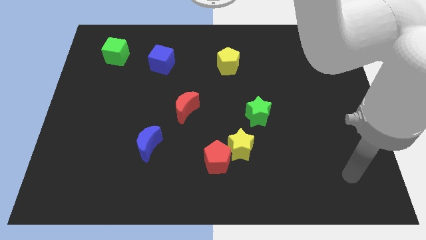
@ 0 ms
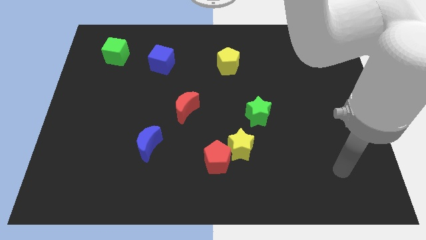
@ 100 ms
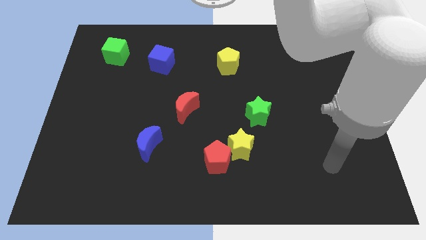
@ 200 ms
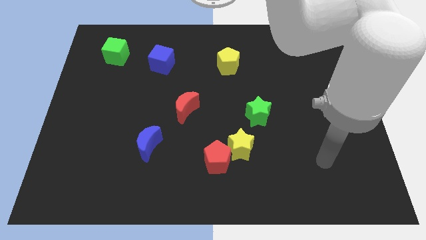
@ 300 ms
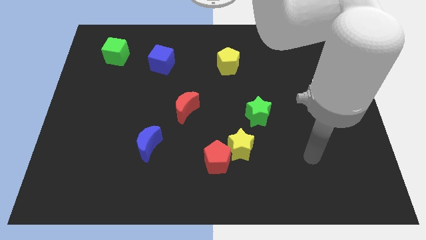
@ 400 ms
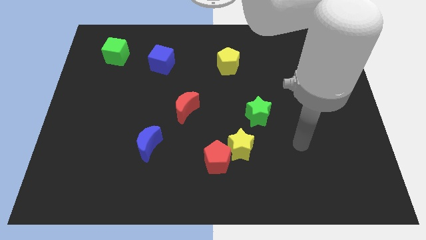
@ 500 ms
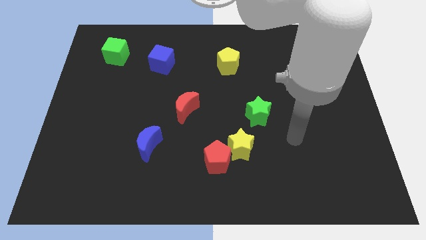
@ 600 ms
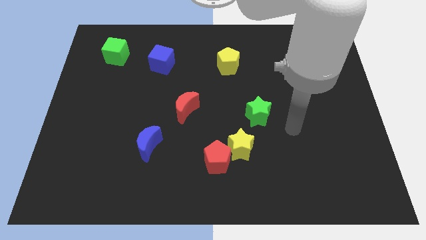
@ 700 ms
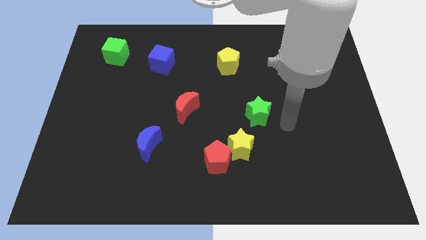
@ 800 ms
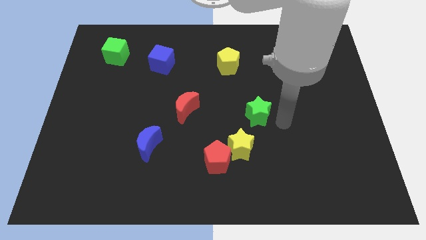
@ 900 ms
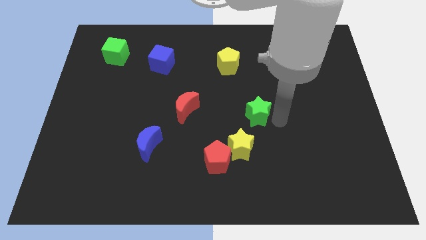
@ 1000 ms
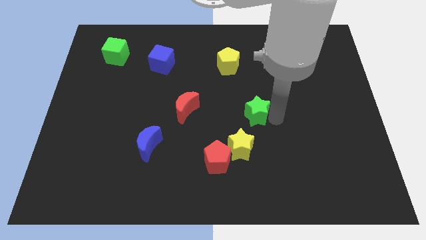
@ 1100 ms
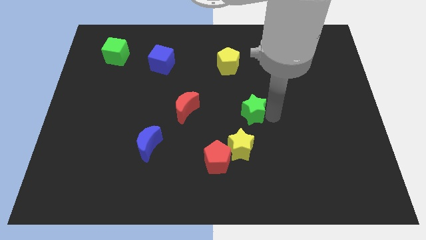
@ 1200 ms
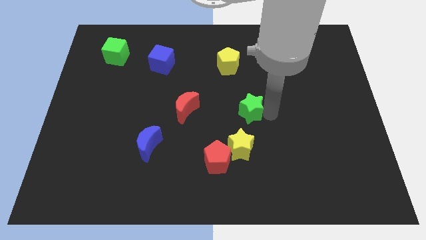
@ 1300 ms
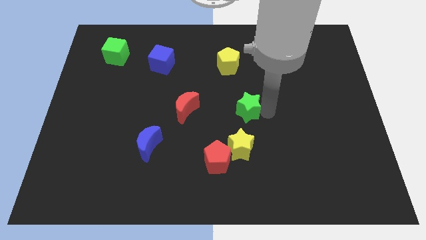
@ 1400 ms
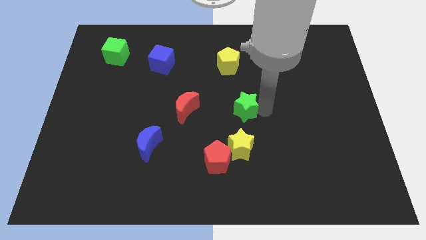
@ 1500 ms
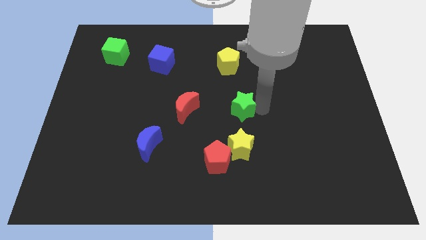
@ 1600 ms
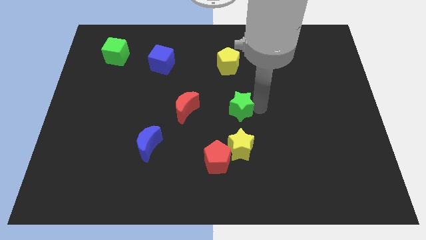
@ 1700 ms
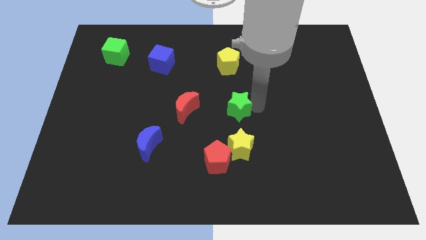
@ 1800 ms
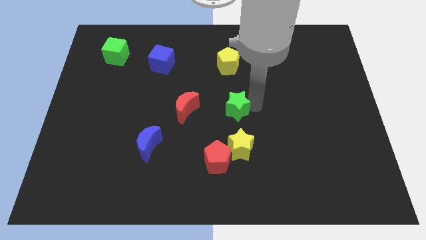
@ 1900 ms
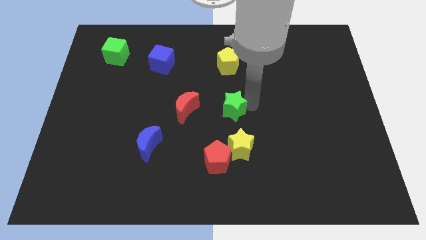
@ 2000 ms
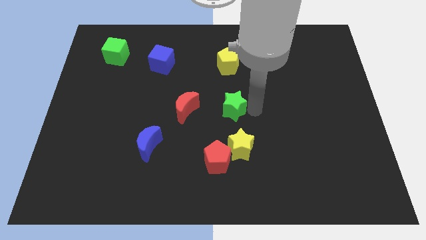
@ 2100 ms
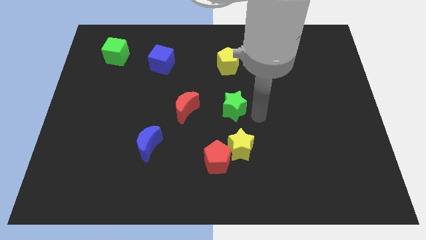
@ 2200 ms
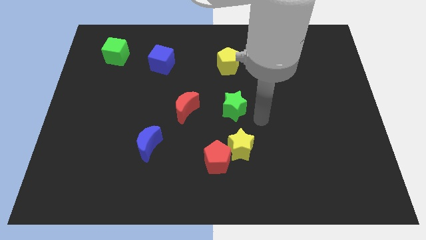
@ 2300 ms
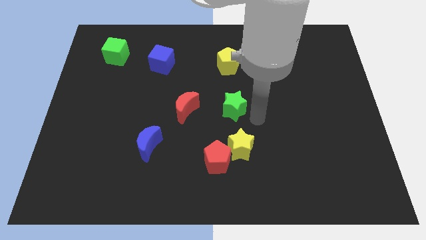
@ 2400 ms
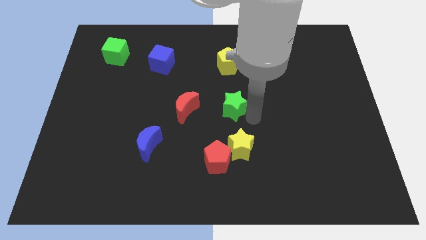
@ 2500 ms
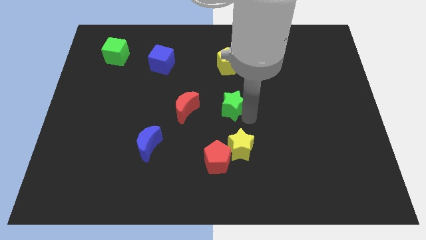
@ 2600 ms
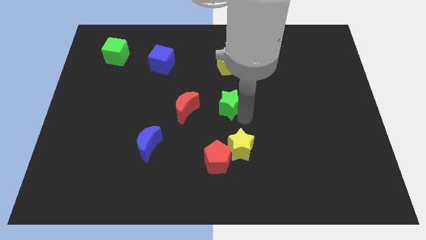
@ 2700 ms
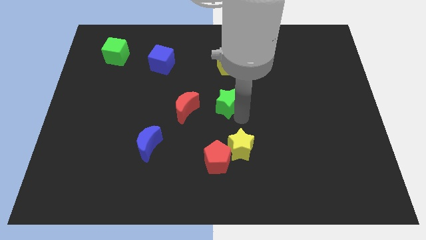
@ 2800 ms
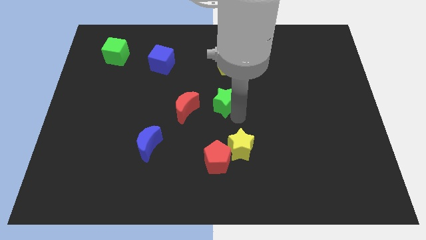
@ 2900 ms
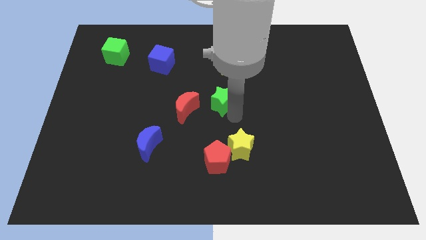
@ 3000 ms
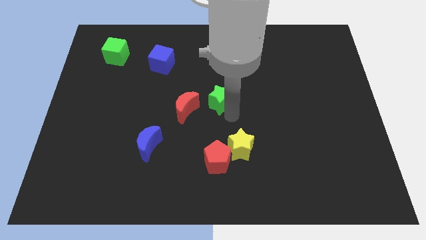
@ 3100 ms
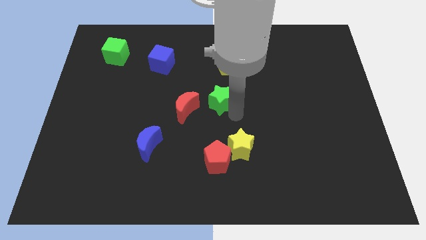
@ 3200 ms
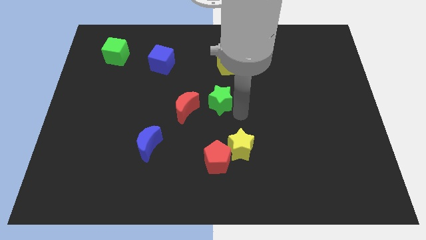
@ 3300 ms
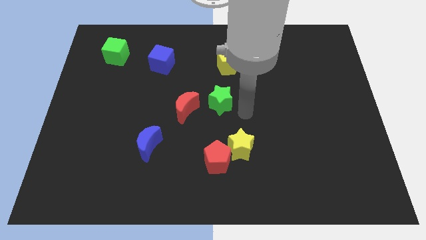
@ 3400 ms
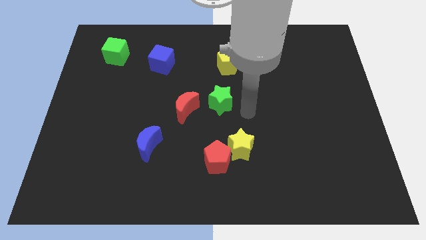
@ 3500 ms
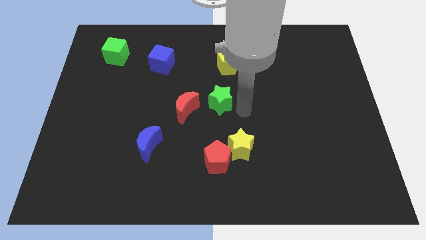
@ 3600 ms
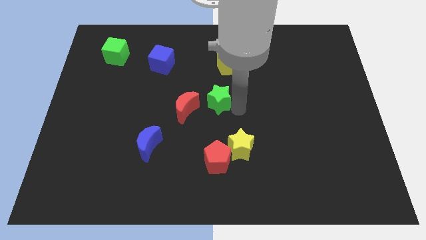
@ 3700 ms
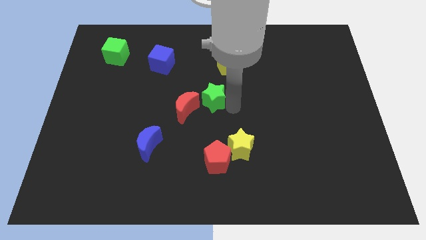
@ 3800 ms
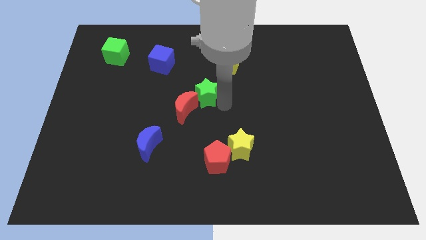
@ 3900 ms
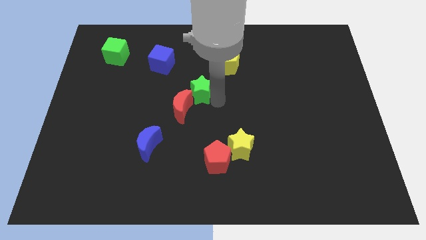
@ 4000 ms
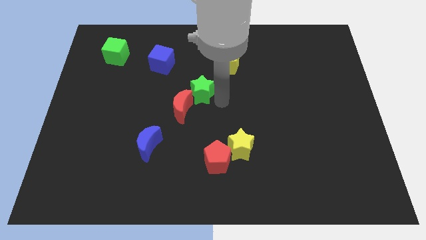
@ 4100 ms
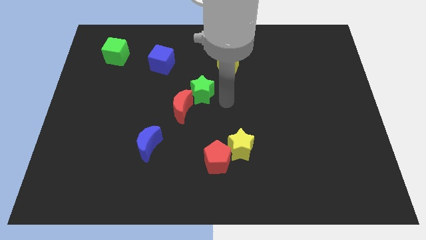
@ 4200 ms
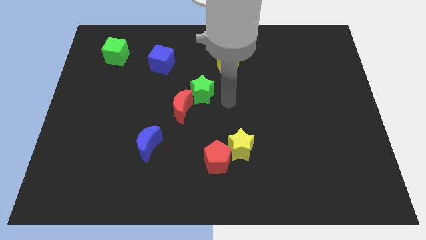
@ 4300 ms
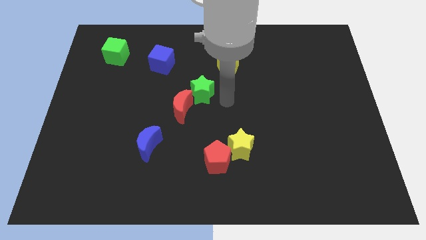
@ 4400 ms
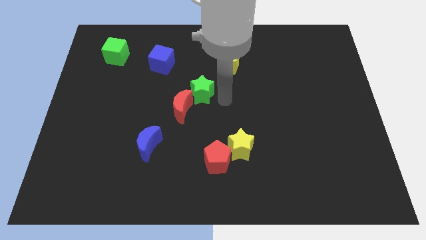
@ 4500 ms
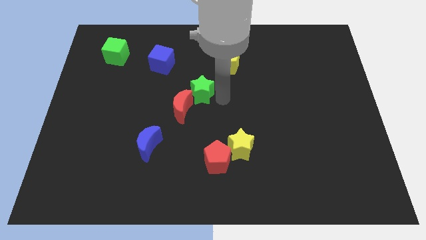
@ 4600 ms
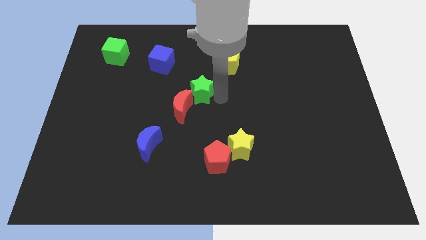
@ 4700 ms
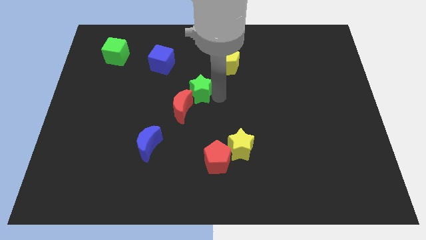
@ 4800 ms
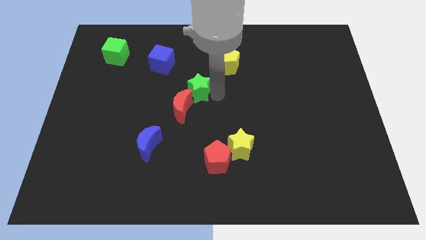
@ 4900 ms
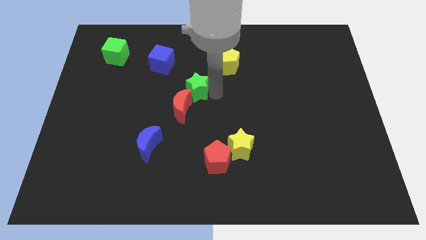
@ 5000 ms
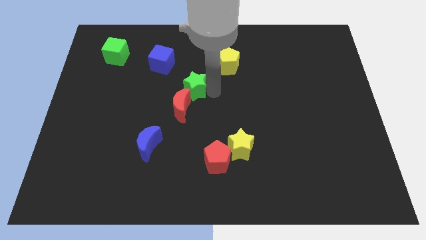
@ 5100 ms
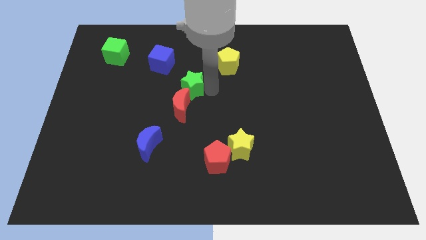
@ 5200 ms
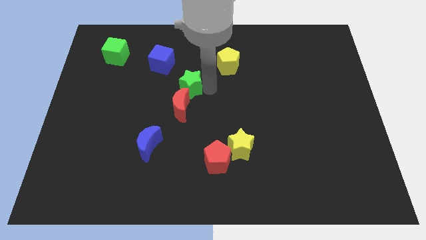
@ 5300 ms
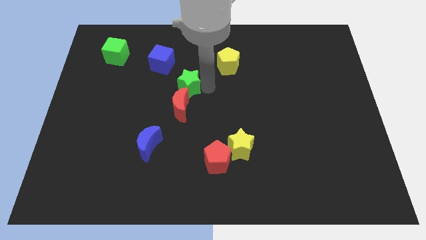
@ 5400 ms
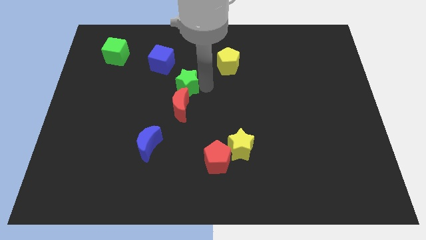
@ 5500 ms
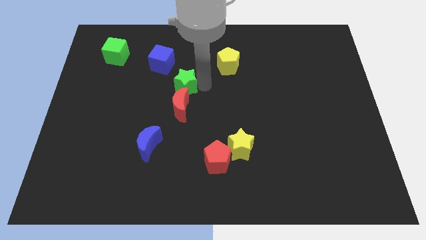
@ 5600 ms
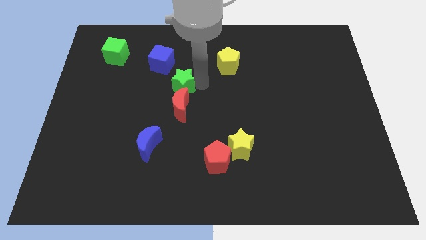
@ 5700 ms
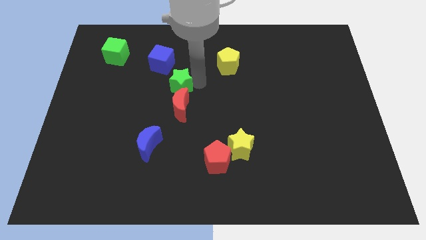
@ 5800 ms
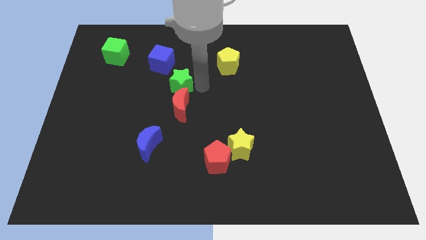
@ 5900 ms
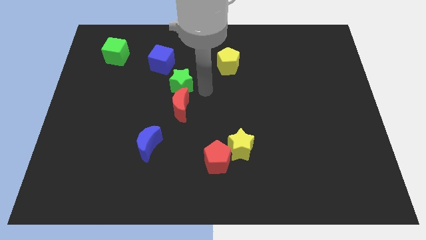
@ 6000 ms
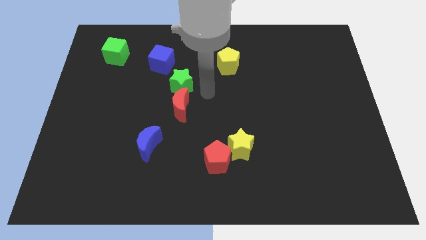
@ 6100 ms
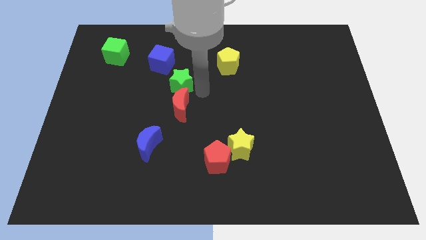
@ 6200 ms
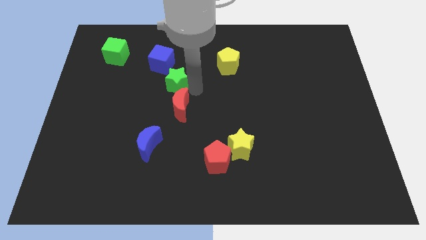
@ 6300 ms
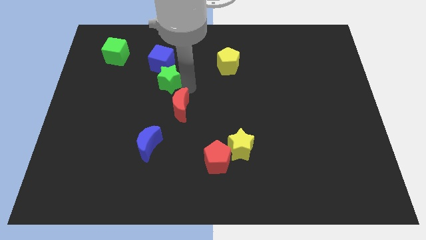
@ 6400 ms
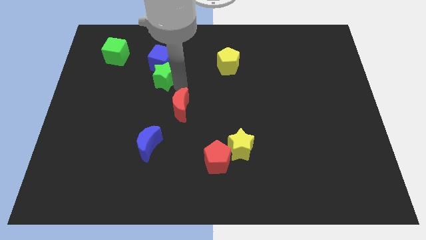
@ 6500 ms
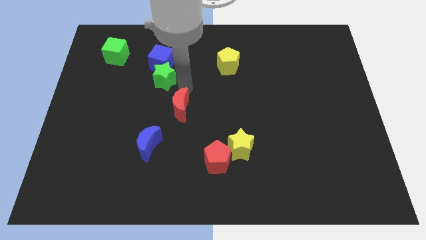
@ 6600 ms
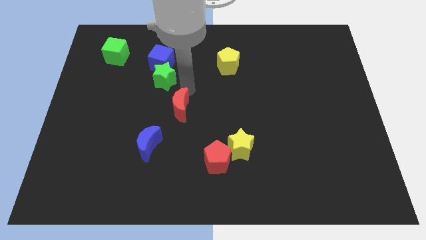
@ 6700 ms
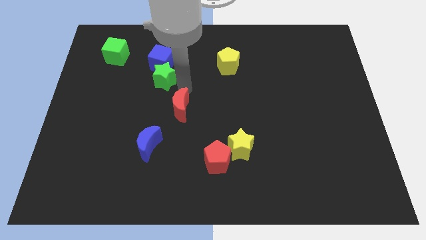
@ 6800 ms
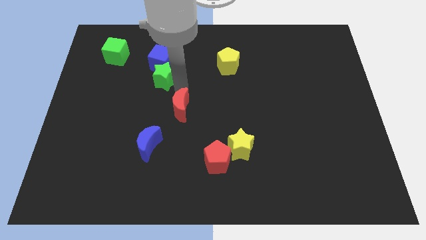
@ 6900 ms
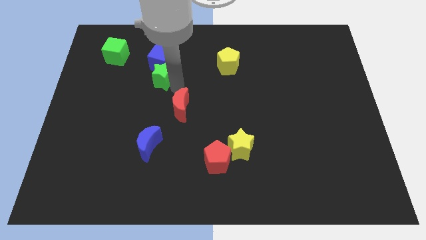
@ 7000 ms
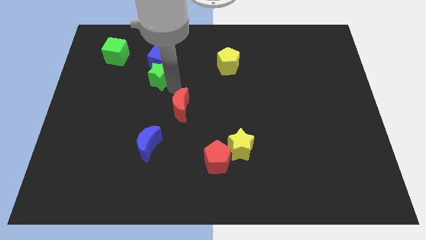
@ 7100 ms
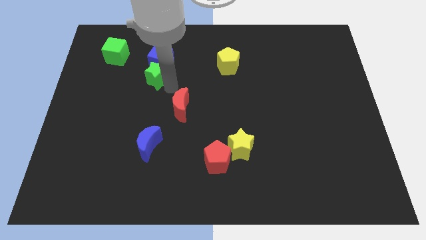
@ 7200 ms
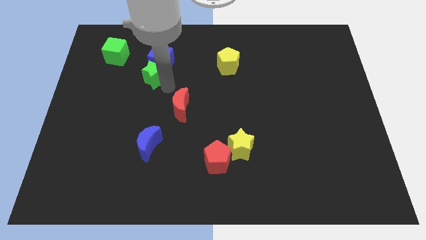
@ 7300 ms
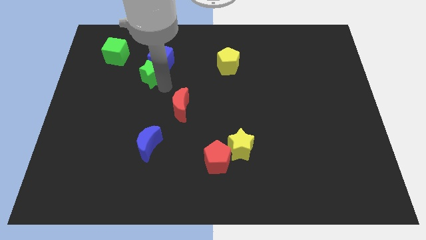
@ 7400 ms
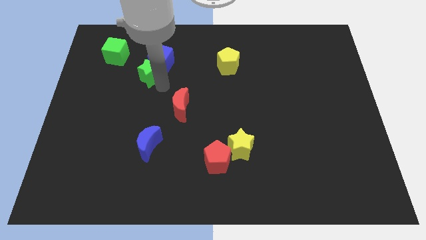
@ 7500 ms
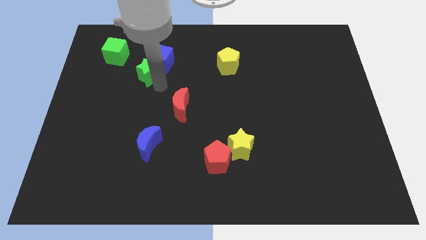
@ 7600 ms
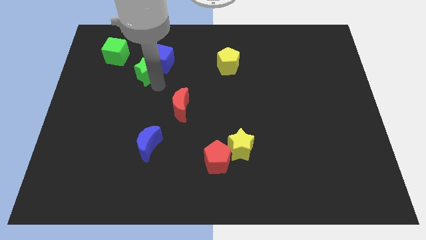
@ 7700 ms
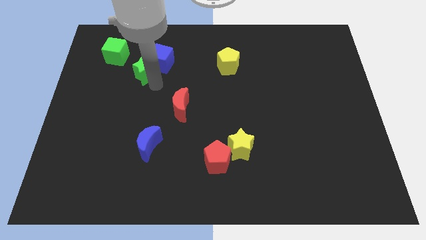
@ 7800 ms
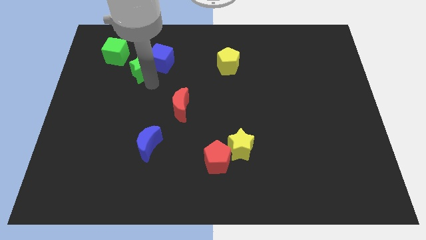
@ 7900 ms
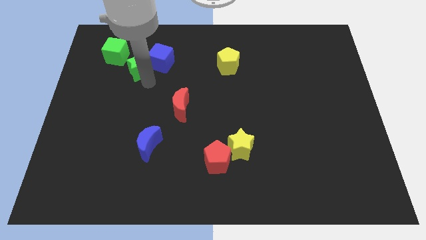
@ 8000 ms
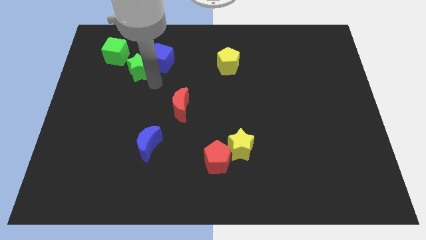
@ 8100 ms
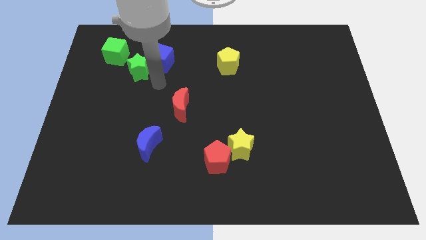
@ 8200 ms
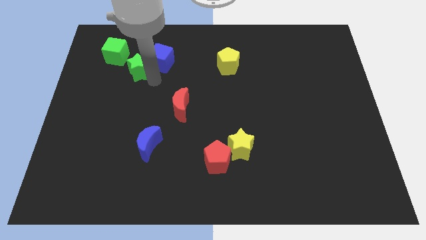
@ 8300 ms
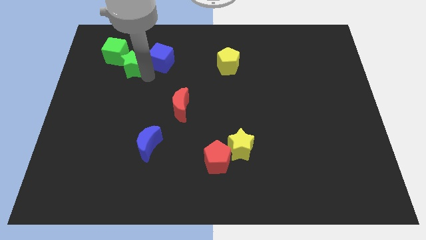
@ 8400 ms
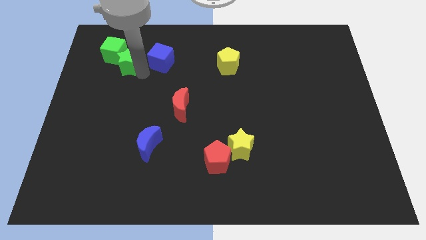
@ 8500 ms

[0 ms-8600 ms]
push the green star to the green cube
